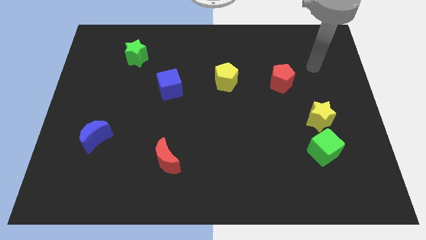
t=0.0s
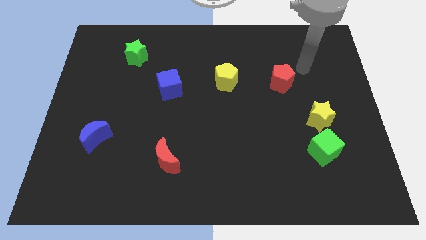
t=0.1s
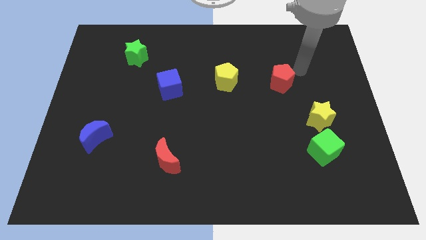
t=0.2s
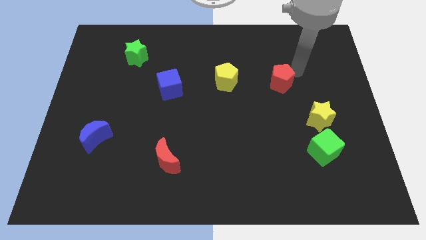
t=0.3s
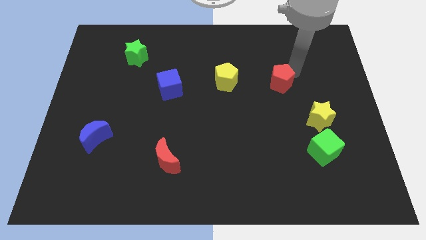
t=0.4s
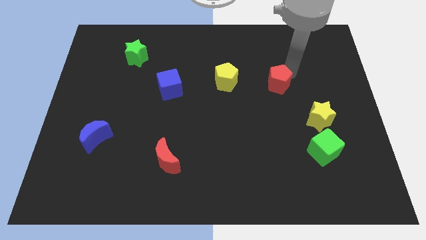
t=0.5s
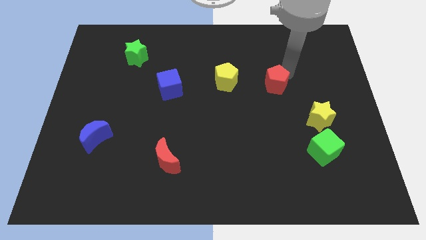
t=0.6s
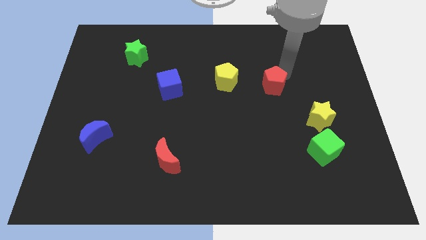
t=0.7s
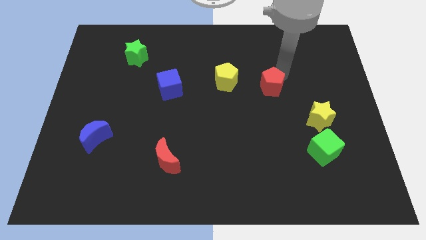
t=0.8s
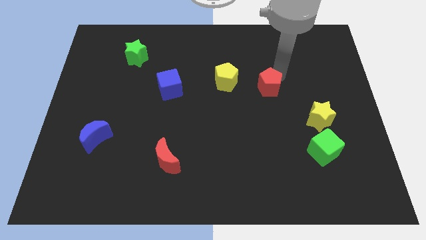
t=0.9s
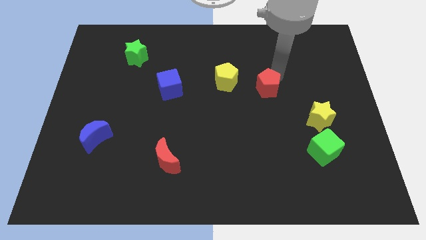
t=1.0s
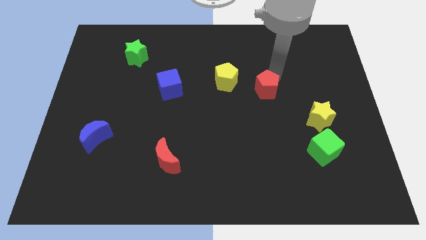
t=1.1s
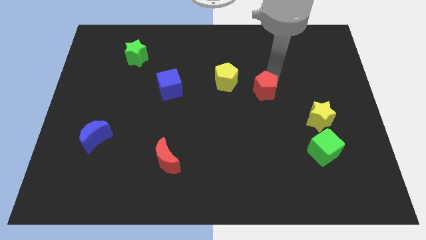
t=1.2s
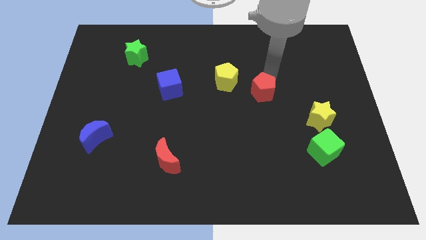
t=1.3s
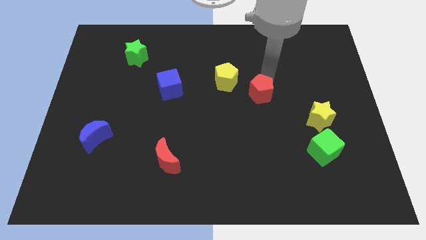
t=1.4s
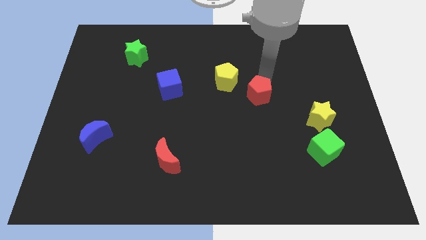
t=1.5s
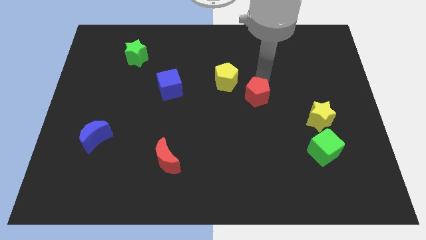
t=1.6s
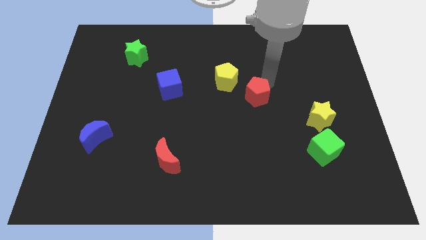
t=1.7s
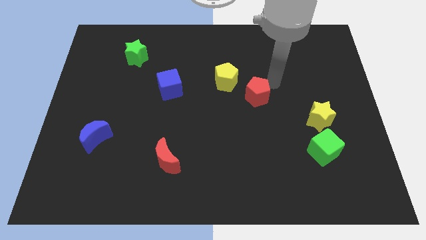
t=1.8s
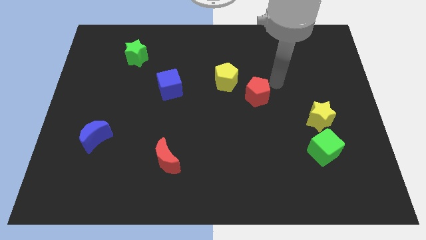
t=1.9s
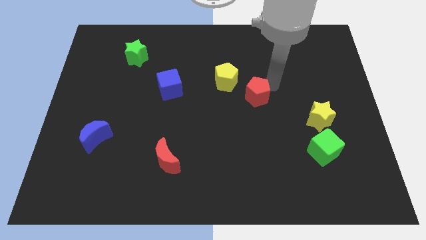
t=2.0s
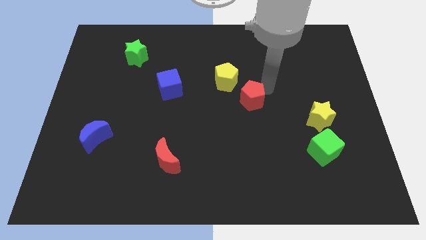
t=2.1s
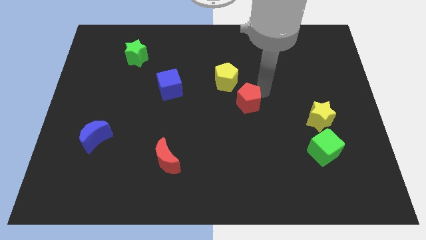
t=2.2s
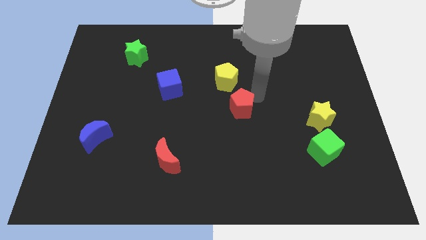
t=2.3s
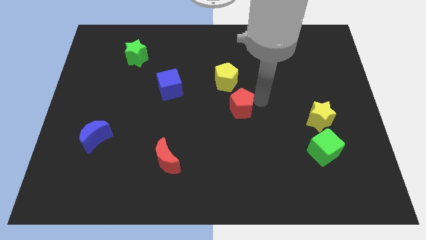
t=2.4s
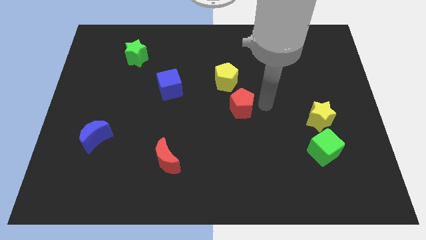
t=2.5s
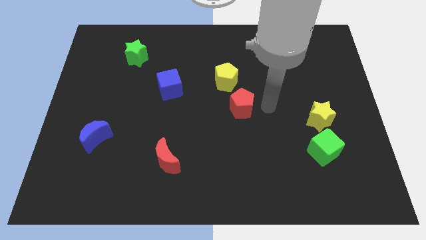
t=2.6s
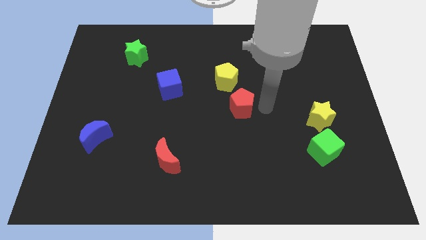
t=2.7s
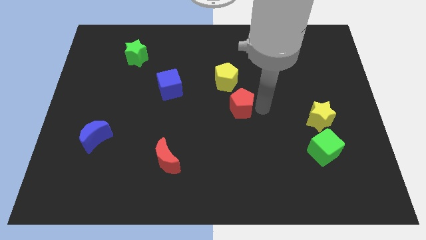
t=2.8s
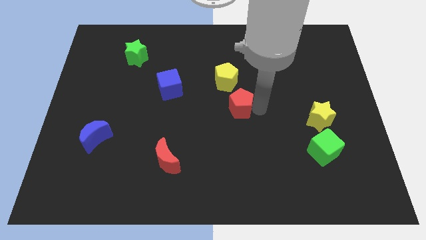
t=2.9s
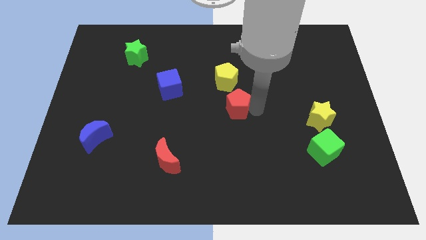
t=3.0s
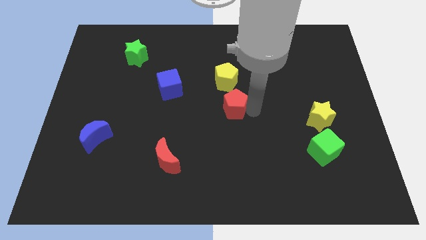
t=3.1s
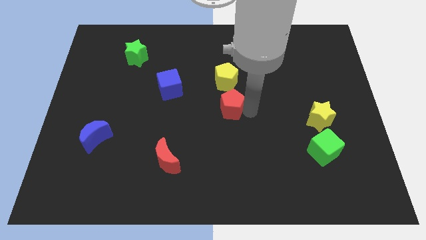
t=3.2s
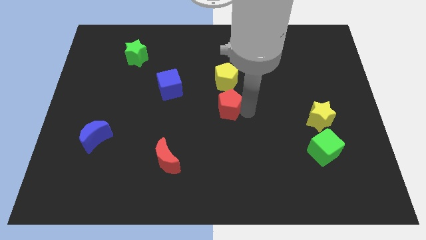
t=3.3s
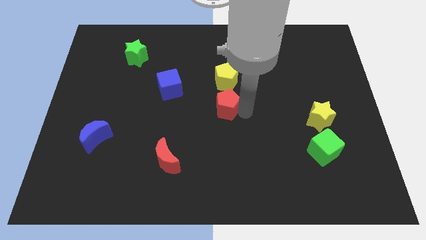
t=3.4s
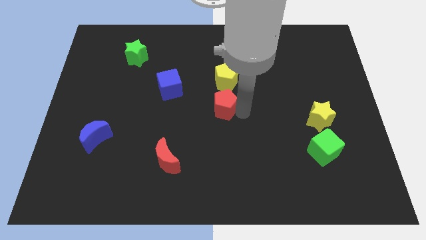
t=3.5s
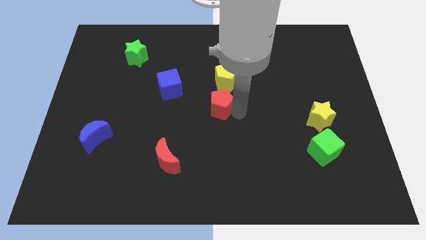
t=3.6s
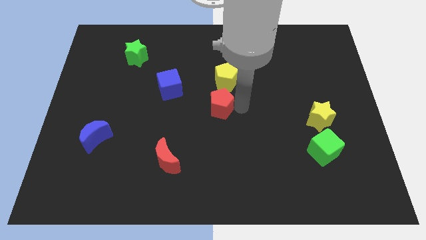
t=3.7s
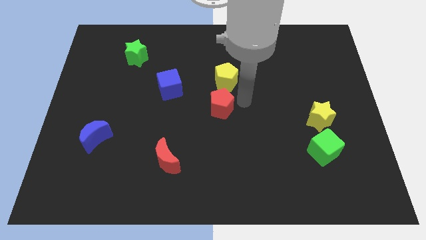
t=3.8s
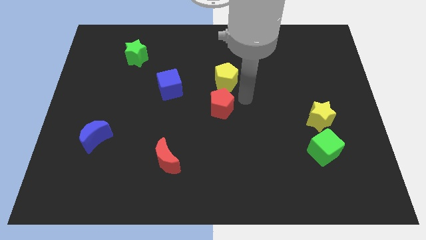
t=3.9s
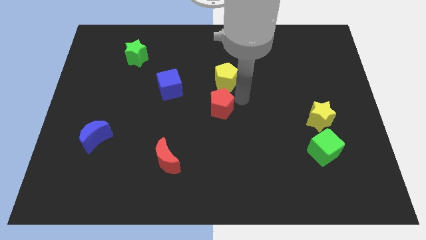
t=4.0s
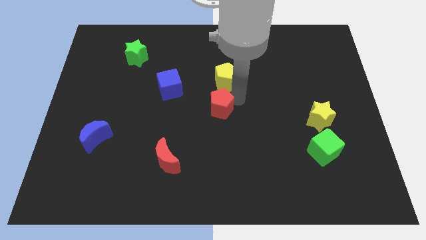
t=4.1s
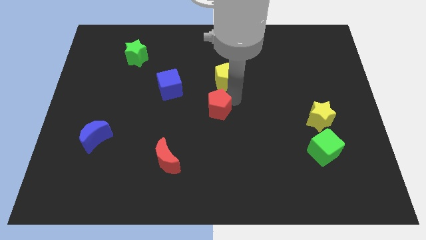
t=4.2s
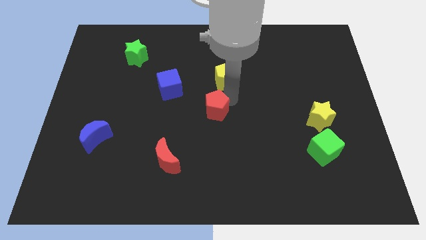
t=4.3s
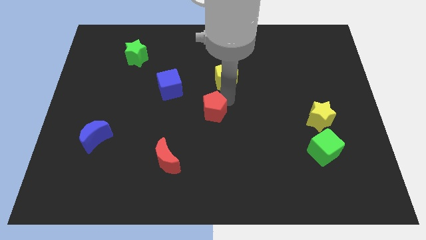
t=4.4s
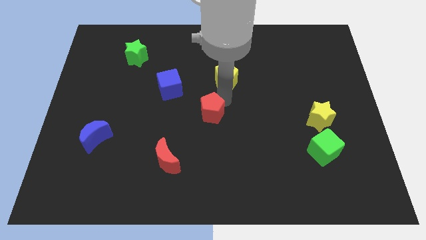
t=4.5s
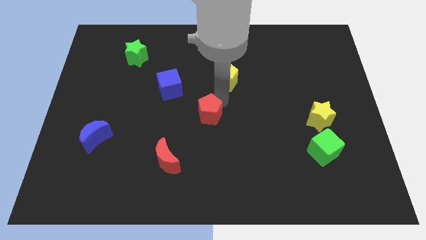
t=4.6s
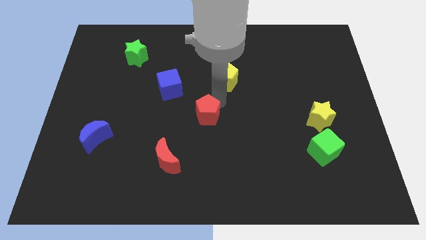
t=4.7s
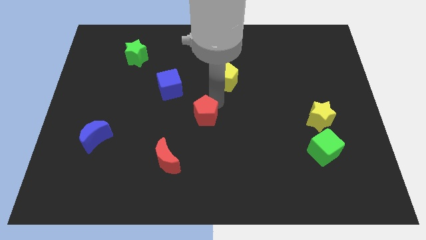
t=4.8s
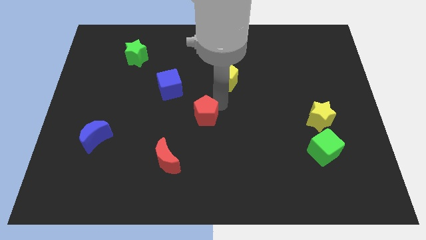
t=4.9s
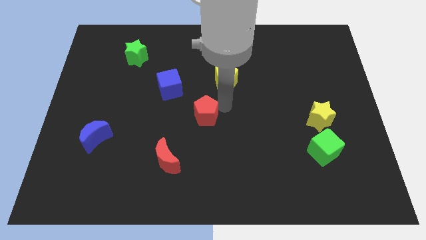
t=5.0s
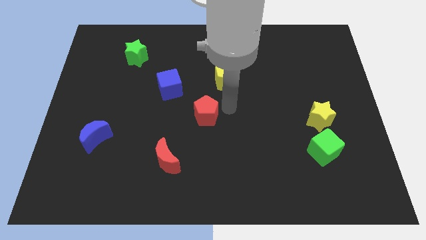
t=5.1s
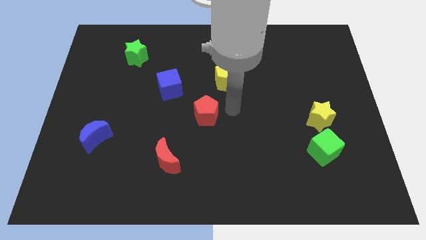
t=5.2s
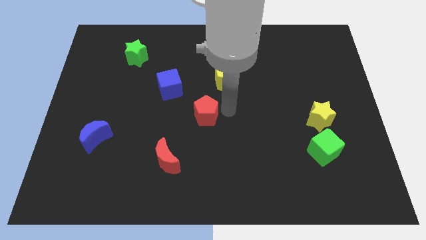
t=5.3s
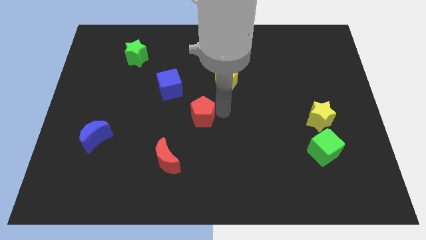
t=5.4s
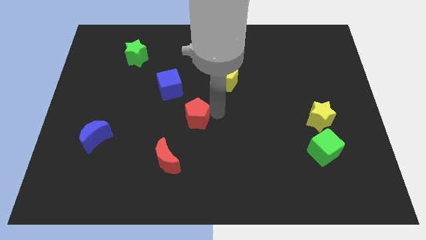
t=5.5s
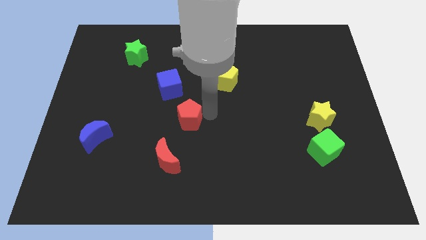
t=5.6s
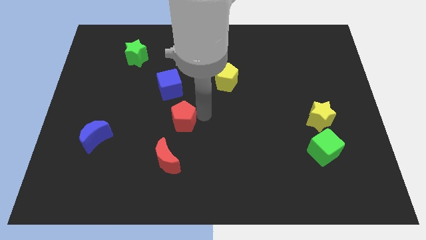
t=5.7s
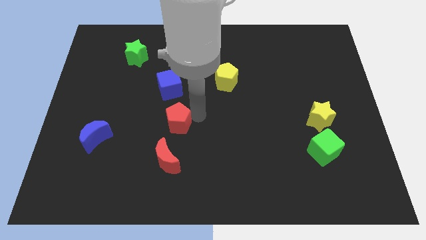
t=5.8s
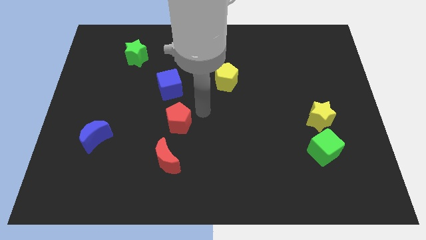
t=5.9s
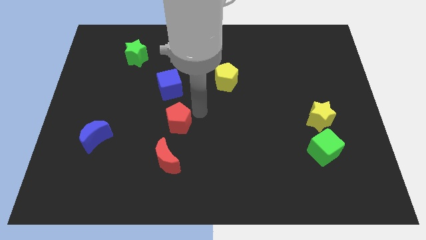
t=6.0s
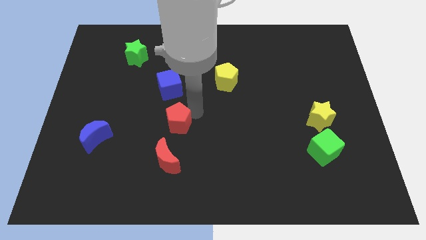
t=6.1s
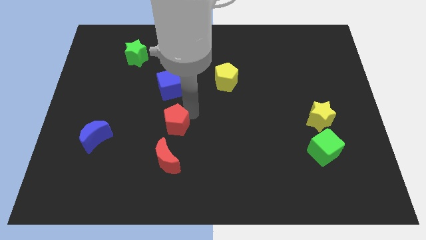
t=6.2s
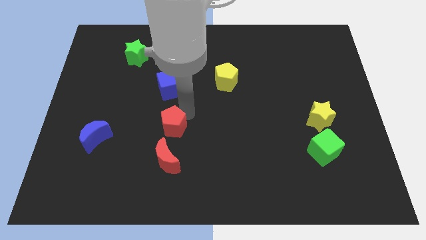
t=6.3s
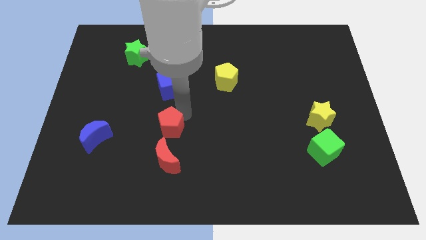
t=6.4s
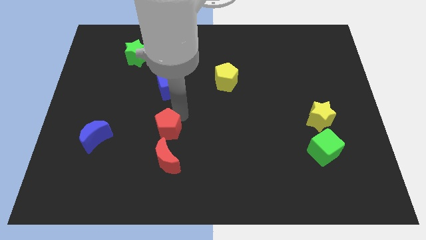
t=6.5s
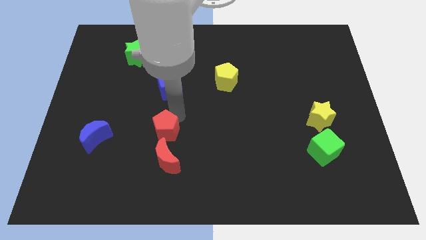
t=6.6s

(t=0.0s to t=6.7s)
move the red pentagon to the right of the blue moon

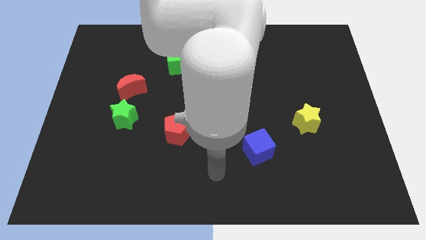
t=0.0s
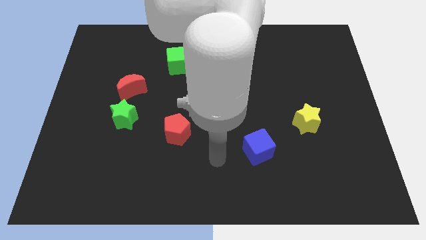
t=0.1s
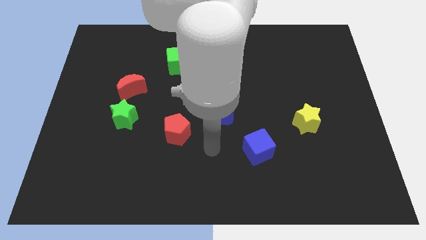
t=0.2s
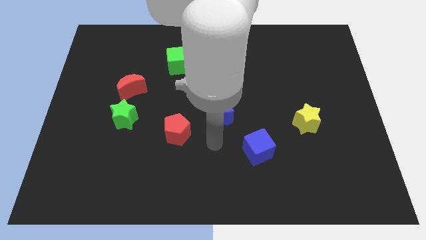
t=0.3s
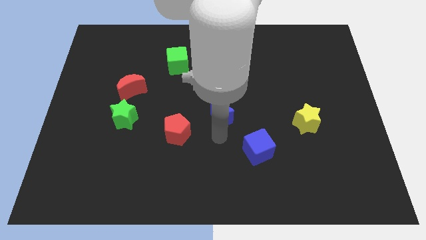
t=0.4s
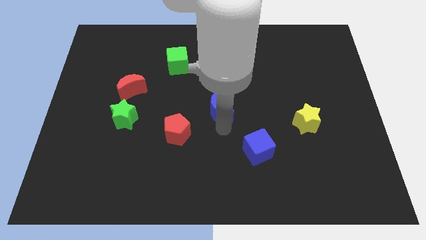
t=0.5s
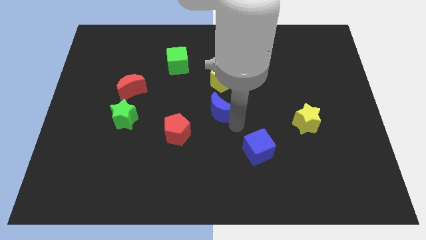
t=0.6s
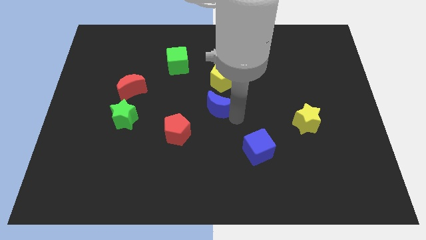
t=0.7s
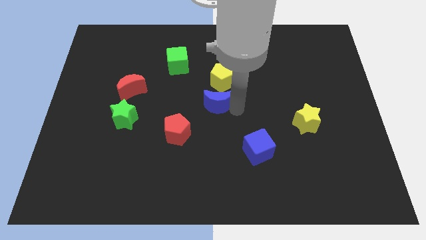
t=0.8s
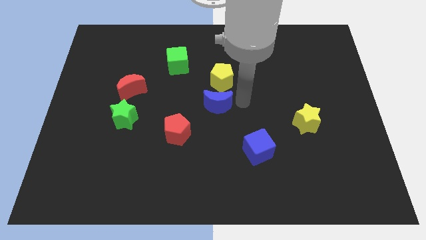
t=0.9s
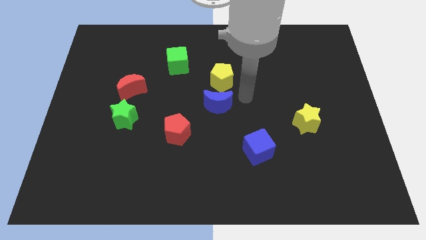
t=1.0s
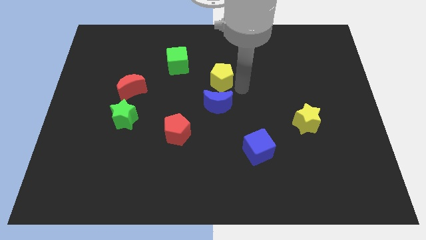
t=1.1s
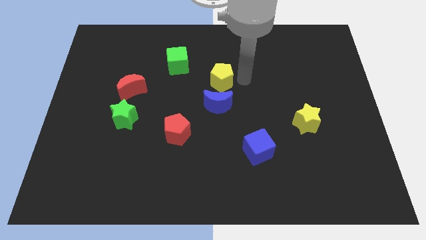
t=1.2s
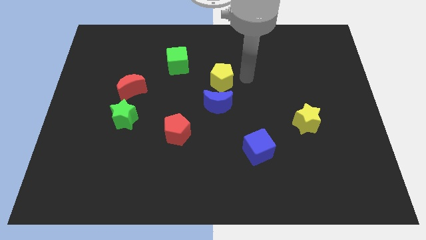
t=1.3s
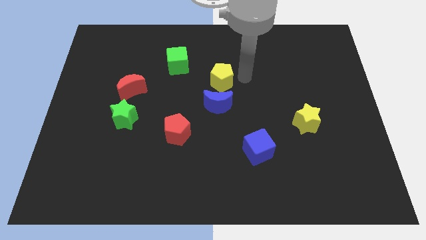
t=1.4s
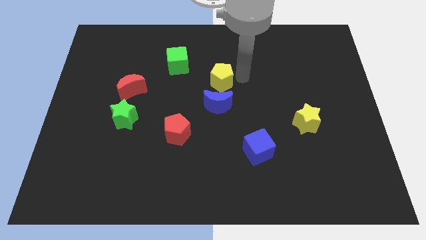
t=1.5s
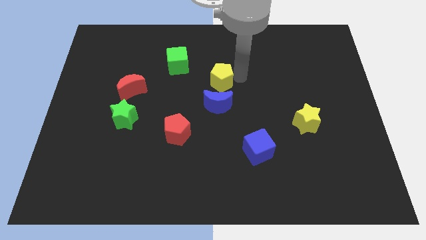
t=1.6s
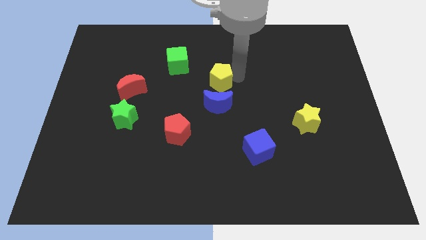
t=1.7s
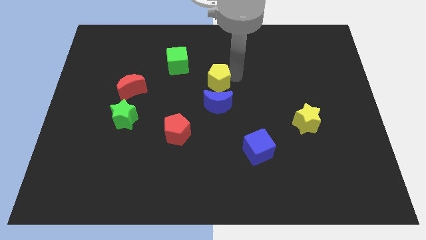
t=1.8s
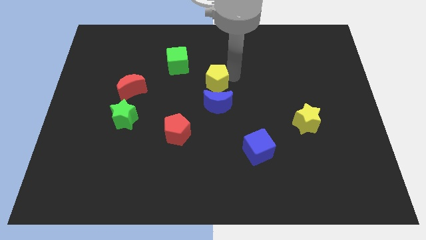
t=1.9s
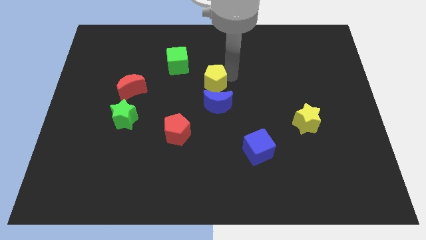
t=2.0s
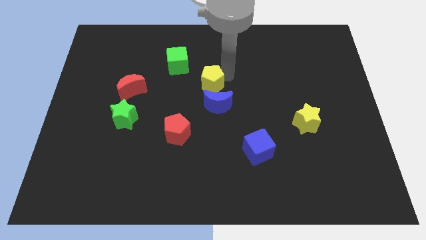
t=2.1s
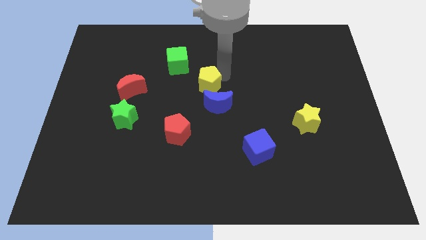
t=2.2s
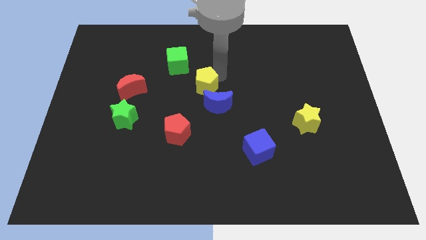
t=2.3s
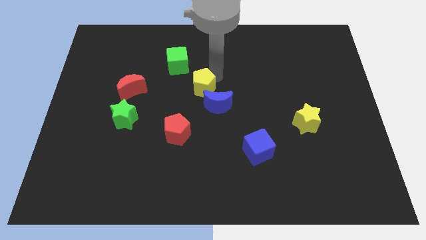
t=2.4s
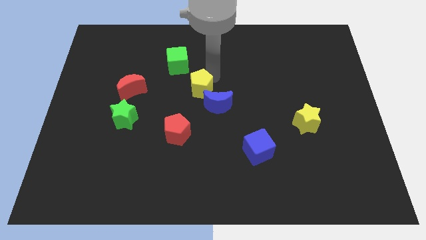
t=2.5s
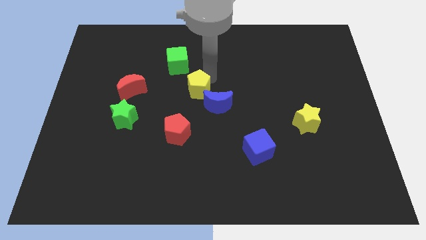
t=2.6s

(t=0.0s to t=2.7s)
push the yellow pentagon to the right side of the red moon
